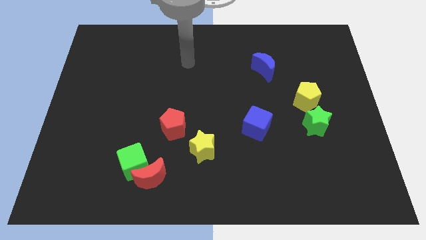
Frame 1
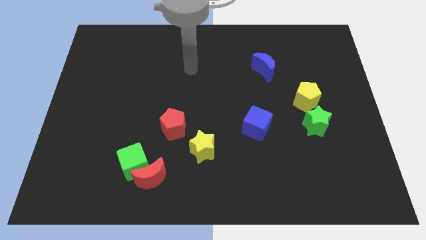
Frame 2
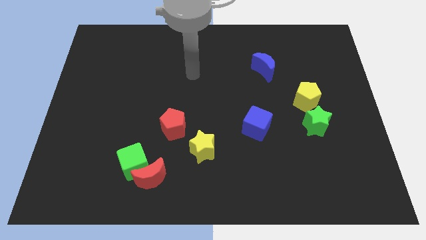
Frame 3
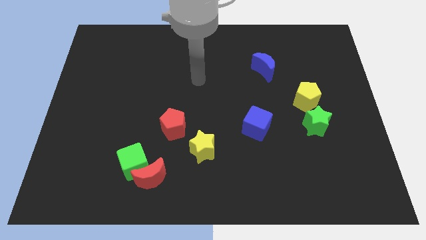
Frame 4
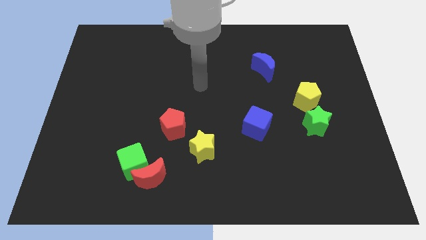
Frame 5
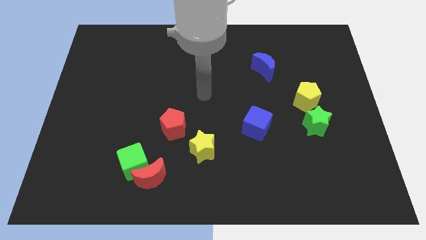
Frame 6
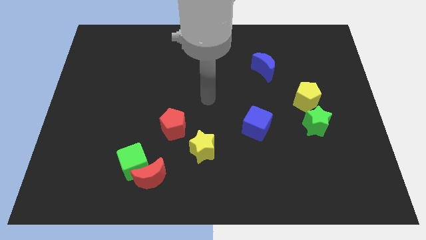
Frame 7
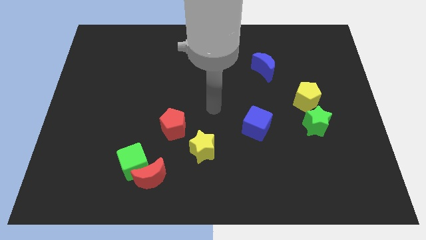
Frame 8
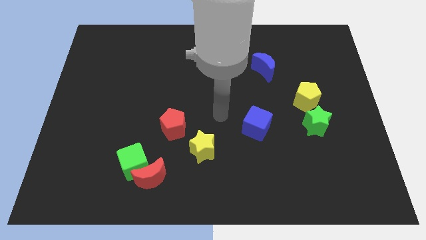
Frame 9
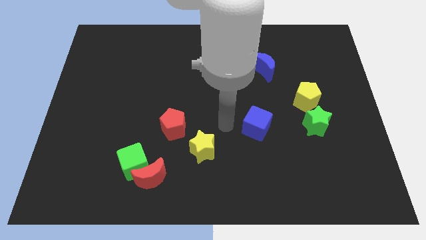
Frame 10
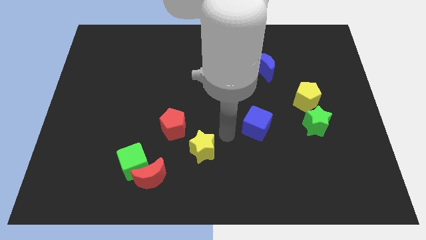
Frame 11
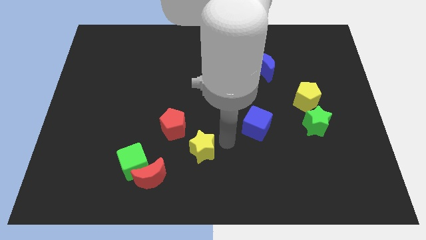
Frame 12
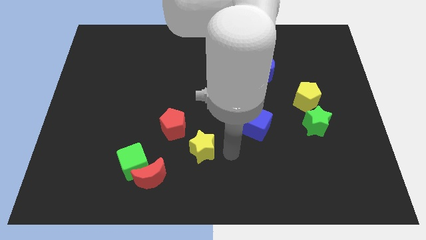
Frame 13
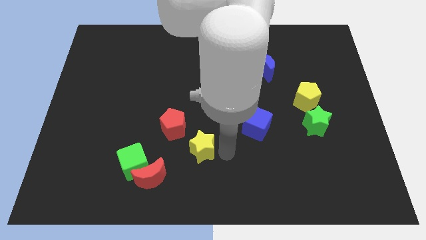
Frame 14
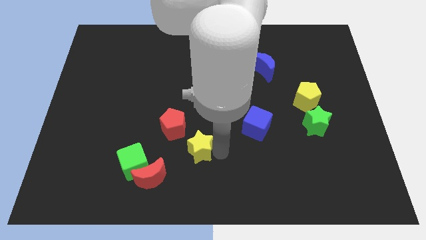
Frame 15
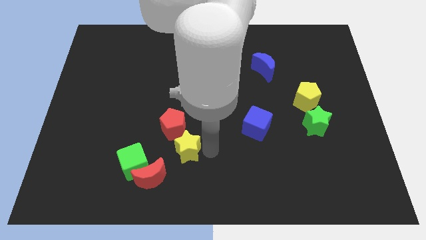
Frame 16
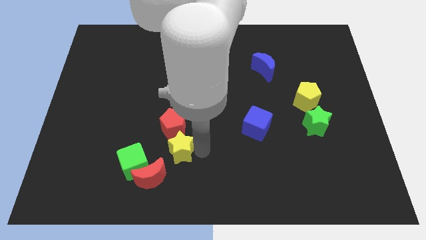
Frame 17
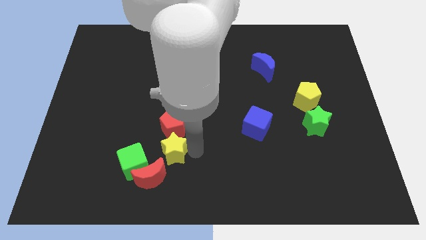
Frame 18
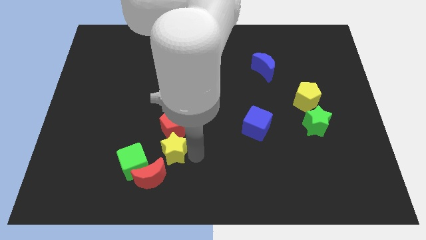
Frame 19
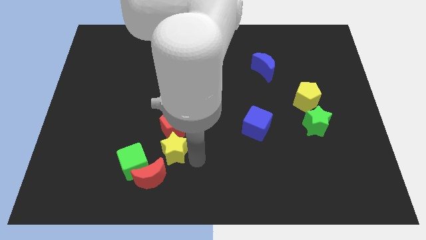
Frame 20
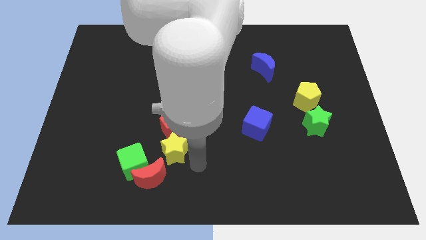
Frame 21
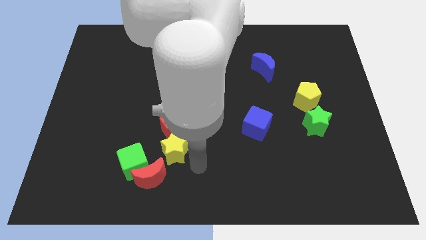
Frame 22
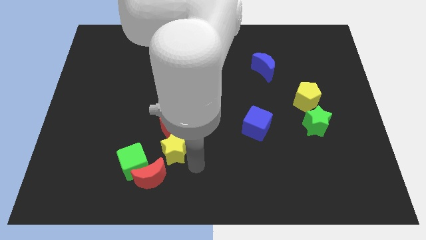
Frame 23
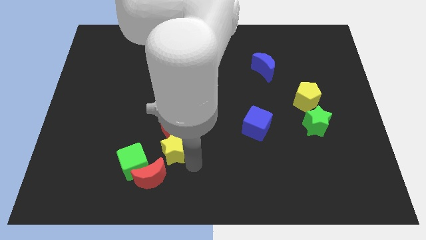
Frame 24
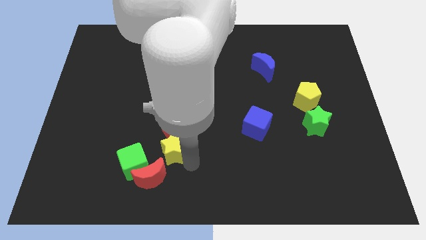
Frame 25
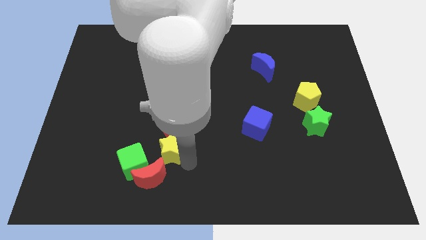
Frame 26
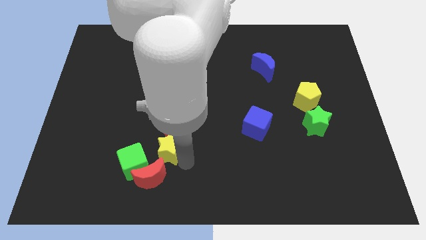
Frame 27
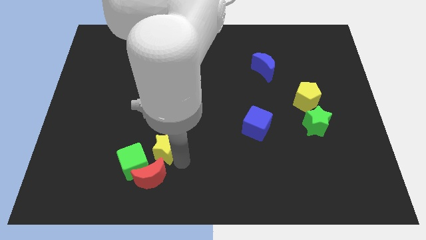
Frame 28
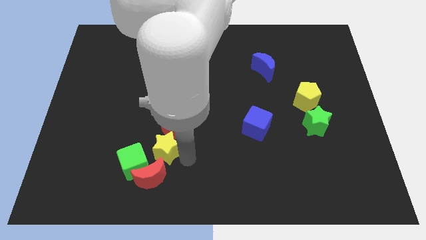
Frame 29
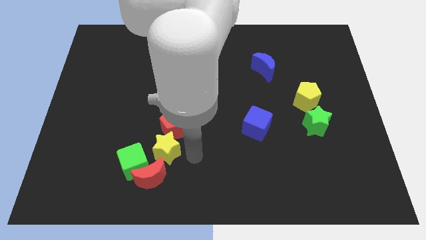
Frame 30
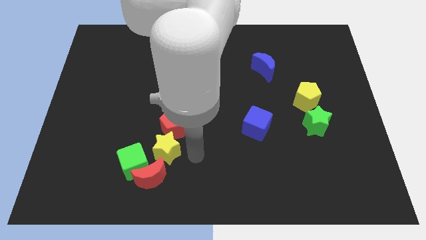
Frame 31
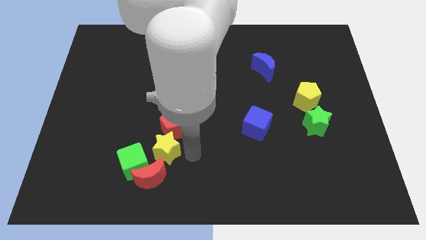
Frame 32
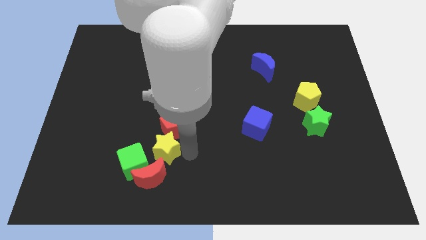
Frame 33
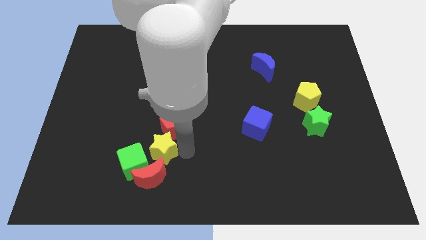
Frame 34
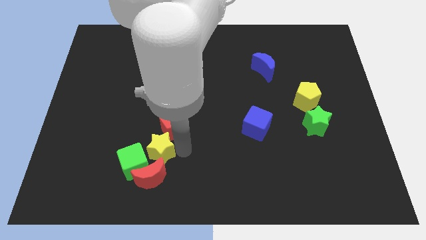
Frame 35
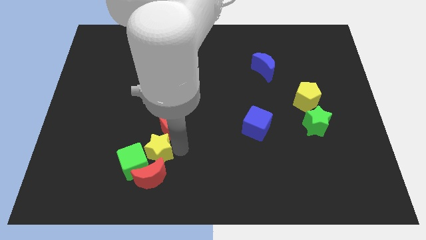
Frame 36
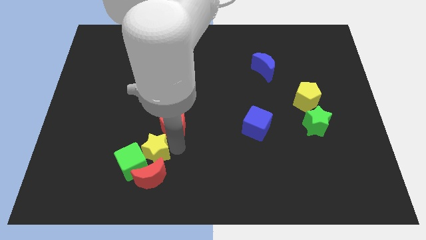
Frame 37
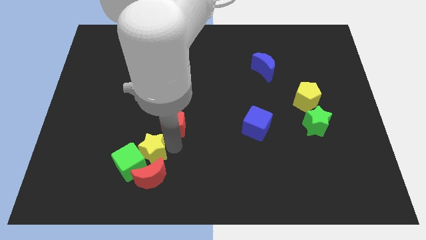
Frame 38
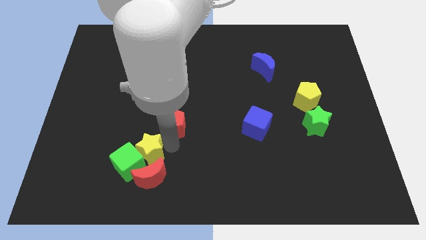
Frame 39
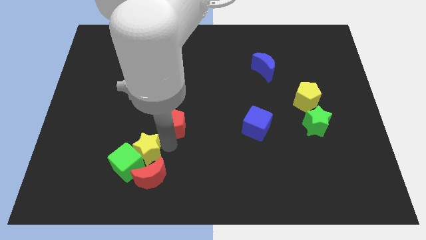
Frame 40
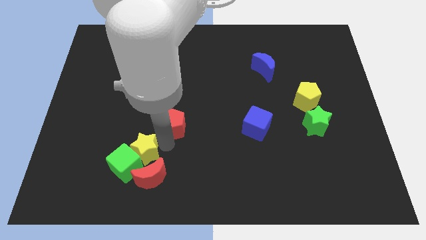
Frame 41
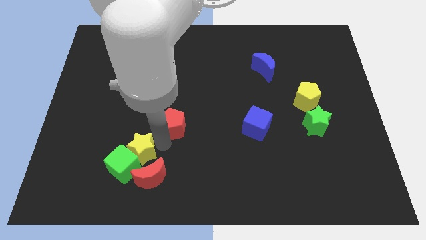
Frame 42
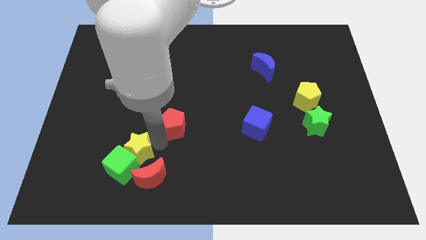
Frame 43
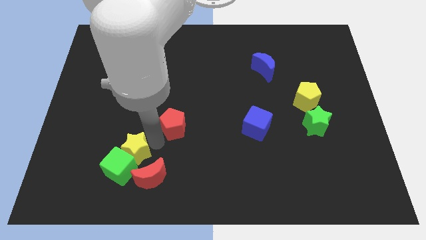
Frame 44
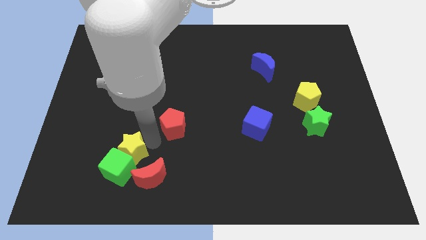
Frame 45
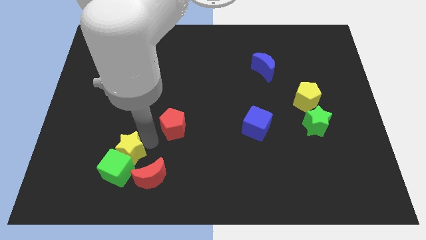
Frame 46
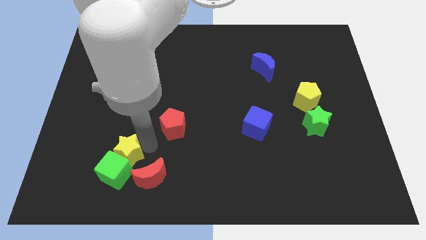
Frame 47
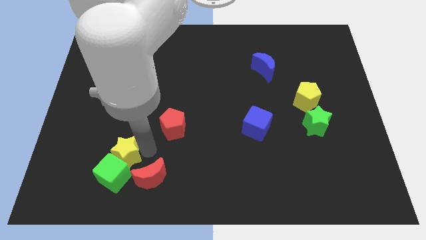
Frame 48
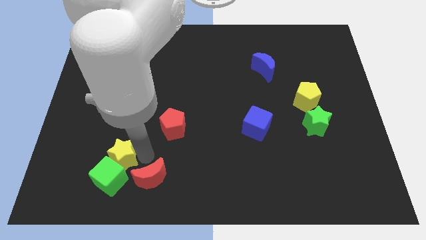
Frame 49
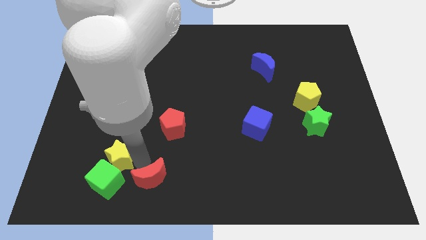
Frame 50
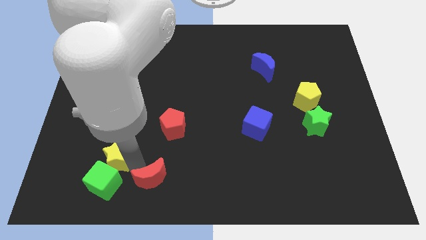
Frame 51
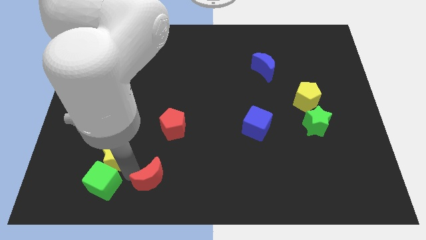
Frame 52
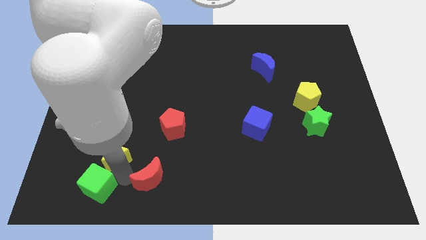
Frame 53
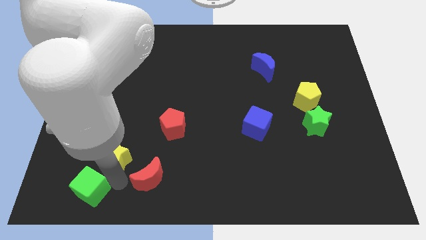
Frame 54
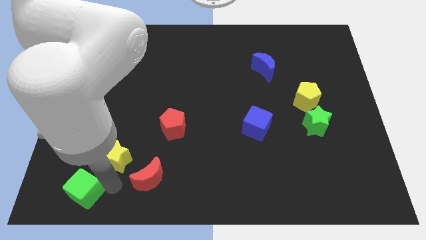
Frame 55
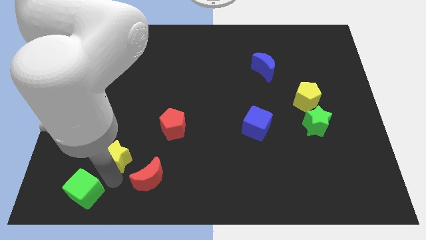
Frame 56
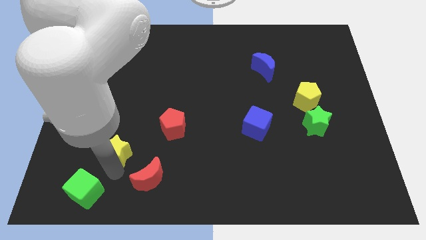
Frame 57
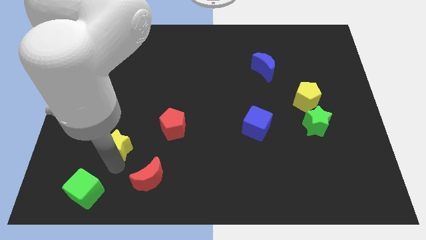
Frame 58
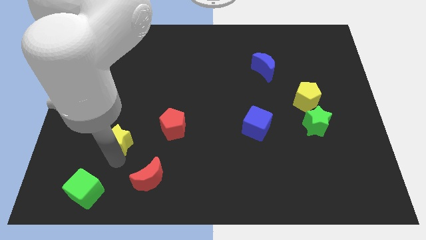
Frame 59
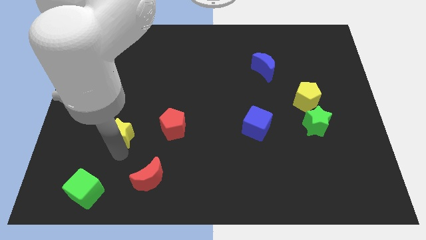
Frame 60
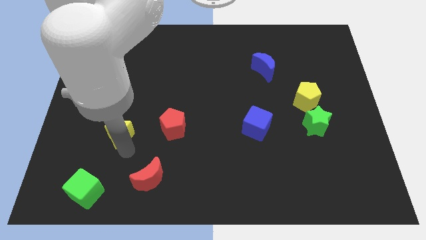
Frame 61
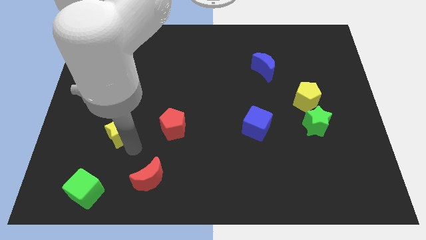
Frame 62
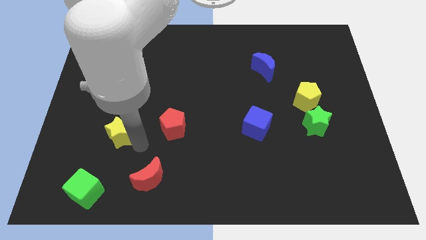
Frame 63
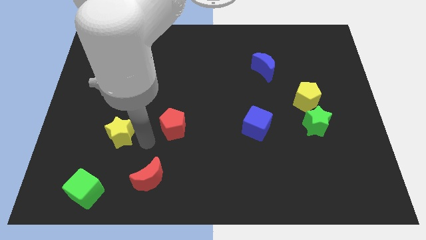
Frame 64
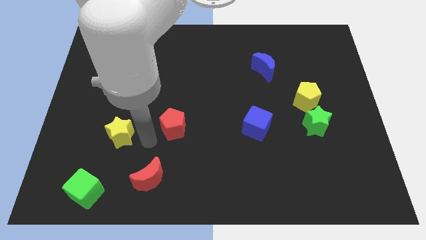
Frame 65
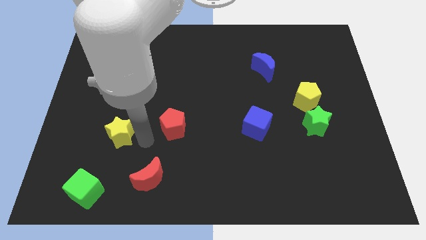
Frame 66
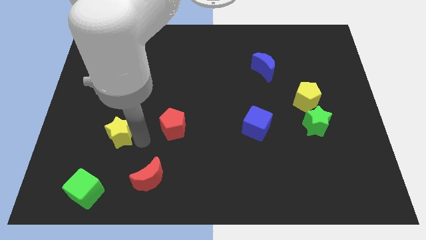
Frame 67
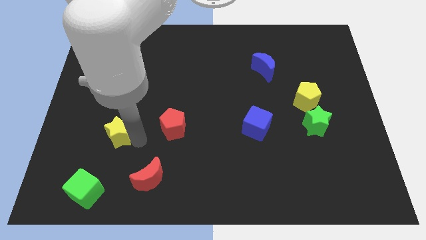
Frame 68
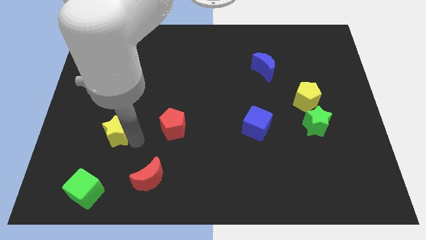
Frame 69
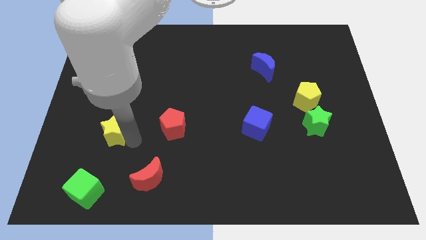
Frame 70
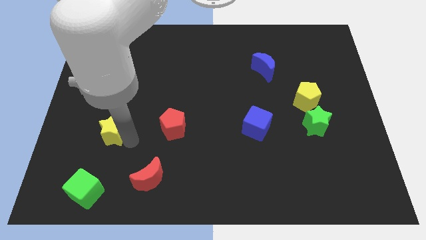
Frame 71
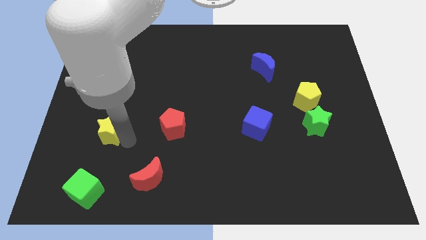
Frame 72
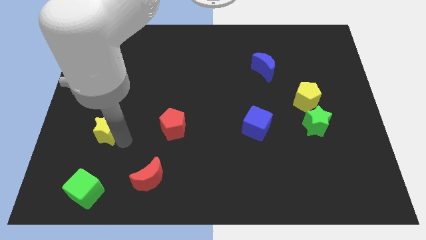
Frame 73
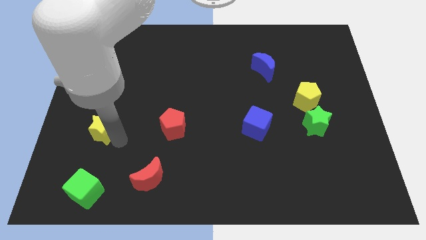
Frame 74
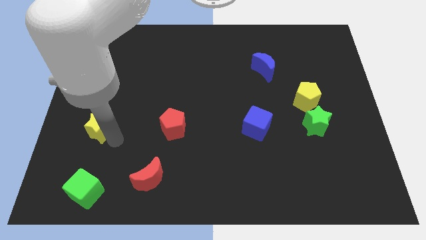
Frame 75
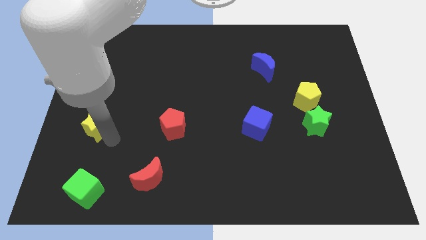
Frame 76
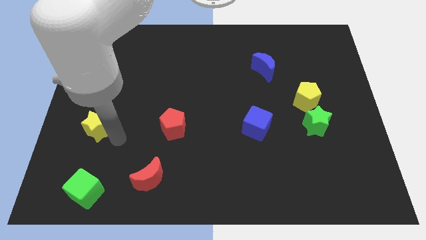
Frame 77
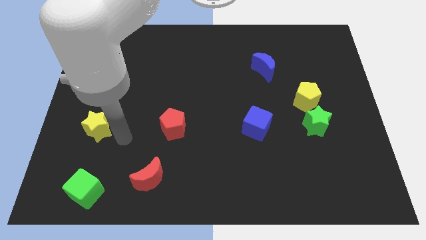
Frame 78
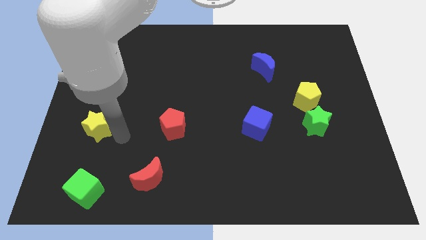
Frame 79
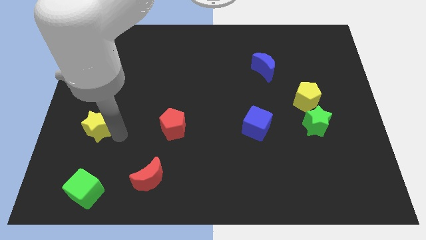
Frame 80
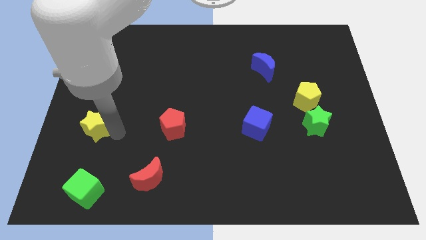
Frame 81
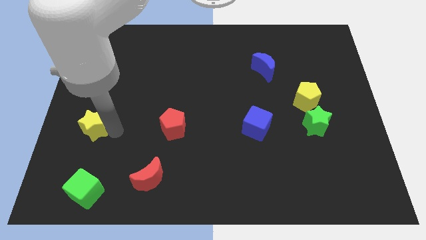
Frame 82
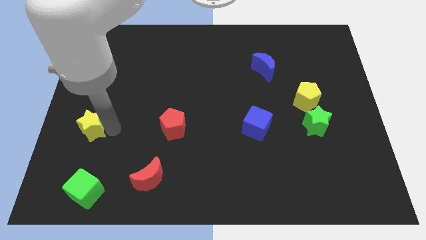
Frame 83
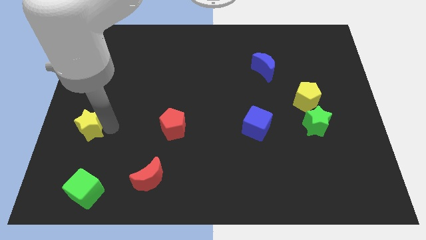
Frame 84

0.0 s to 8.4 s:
slide the yellow star to the left side
